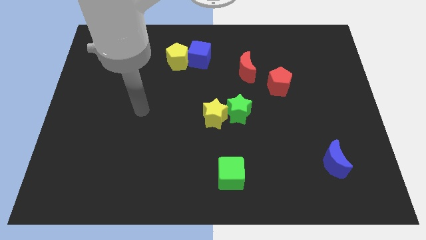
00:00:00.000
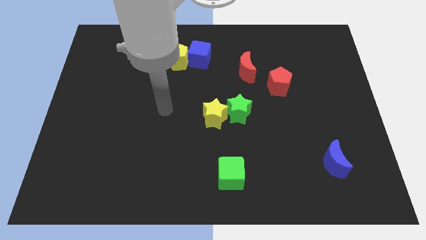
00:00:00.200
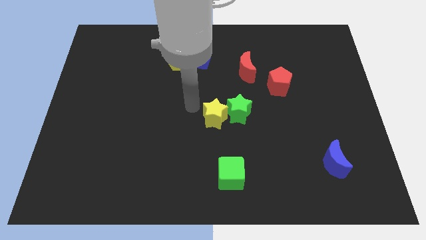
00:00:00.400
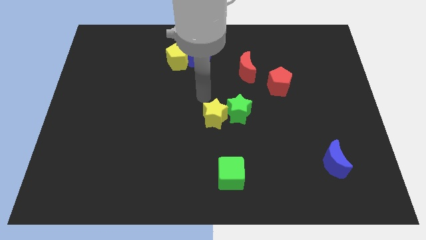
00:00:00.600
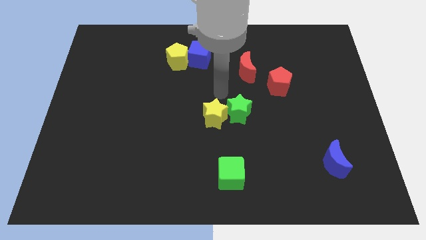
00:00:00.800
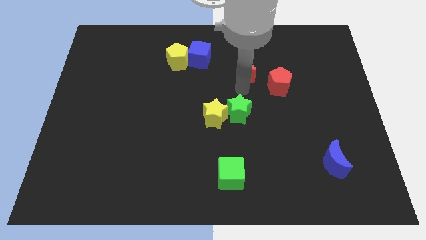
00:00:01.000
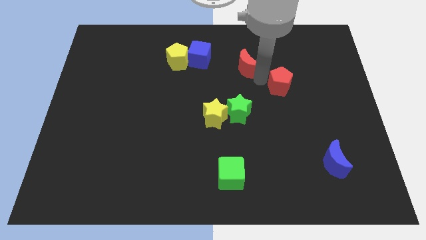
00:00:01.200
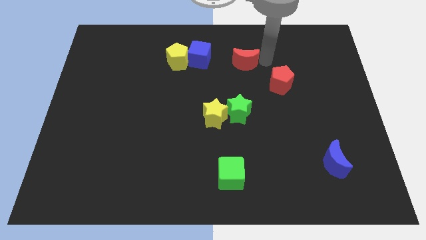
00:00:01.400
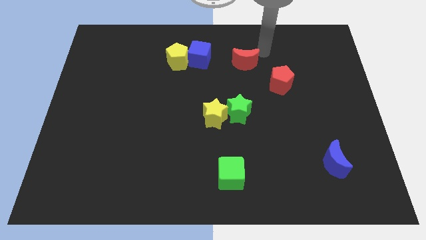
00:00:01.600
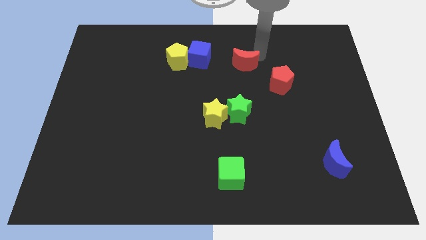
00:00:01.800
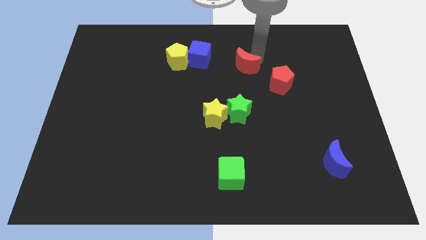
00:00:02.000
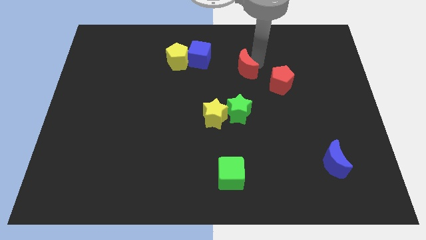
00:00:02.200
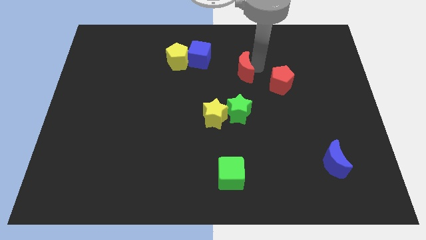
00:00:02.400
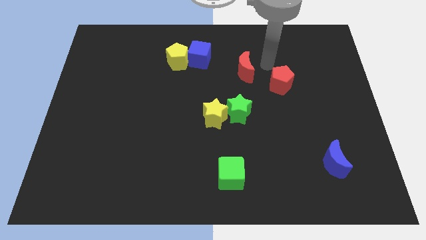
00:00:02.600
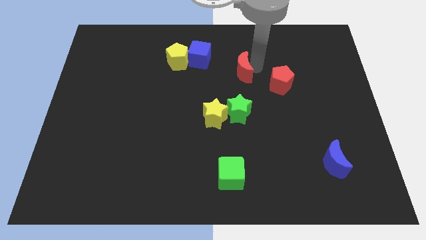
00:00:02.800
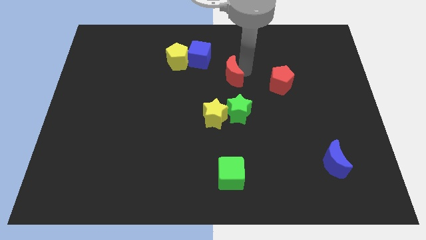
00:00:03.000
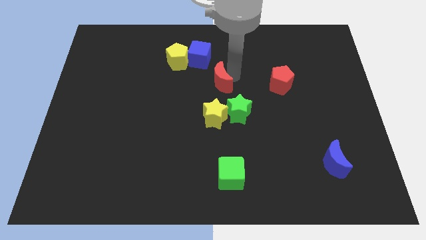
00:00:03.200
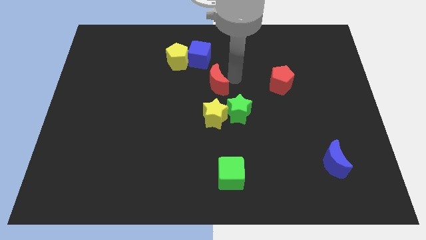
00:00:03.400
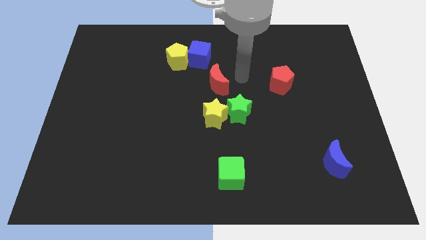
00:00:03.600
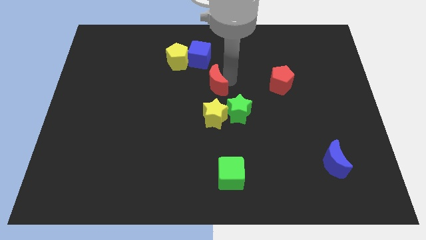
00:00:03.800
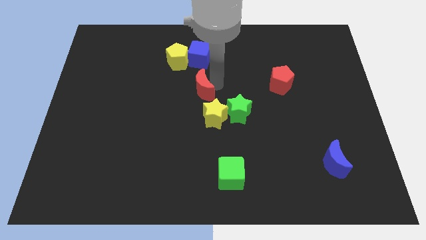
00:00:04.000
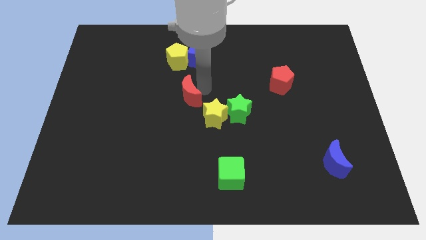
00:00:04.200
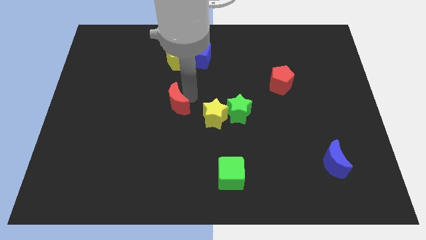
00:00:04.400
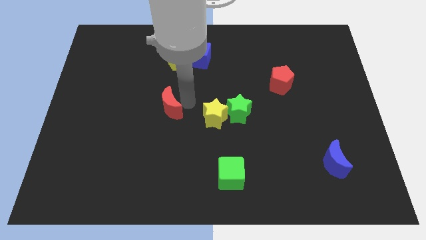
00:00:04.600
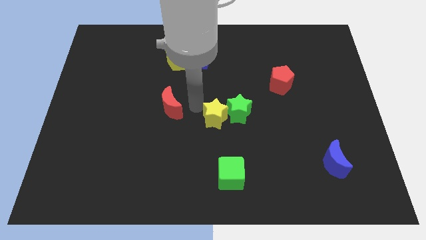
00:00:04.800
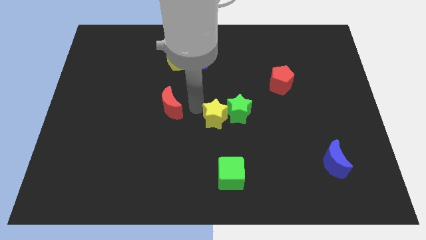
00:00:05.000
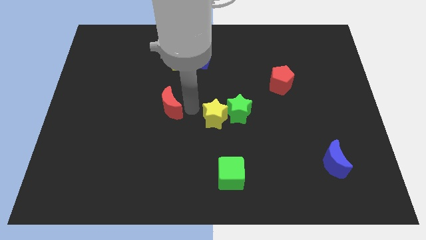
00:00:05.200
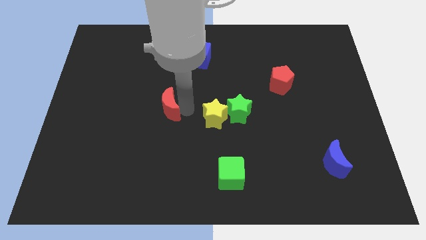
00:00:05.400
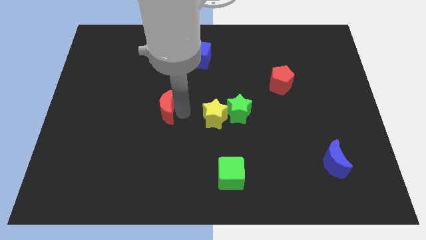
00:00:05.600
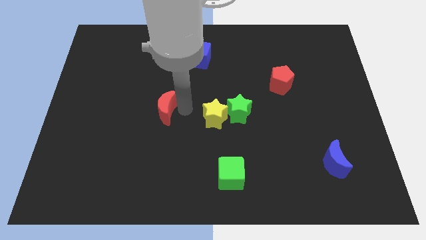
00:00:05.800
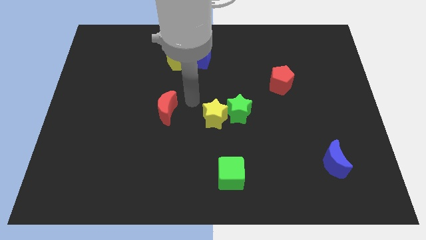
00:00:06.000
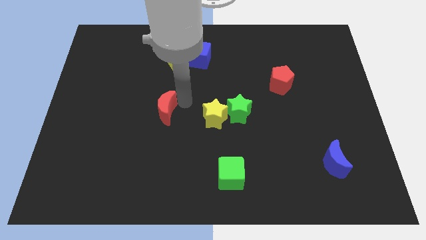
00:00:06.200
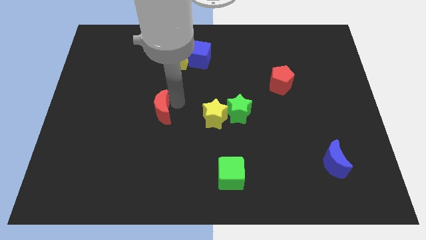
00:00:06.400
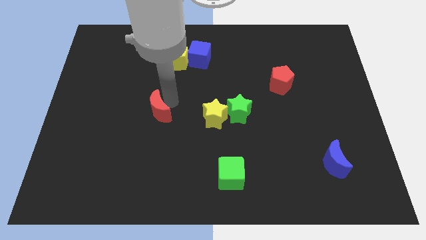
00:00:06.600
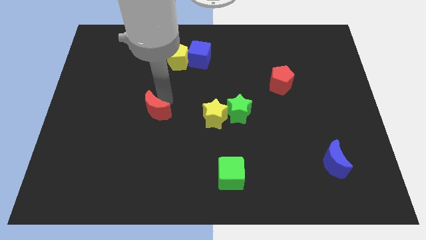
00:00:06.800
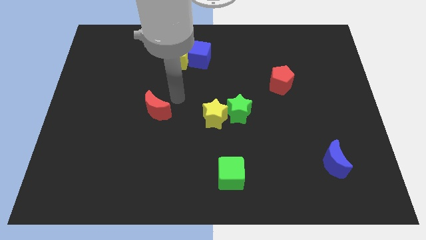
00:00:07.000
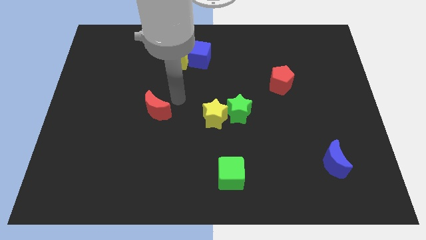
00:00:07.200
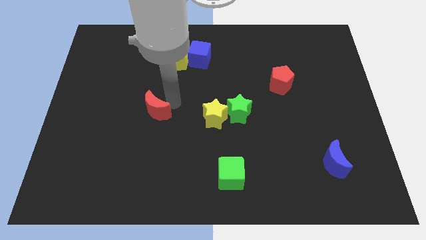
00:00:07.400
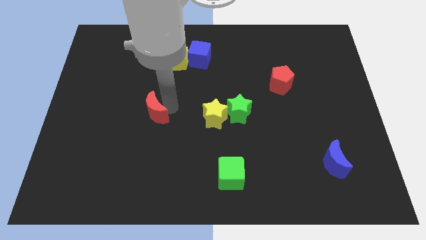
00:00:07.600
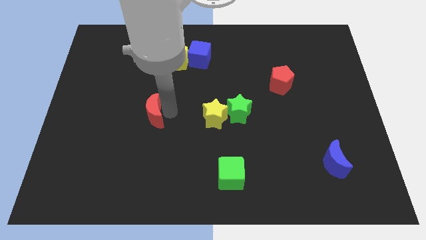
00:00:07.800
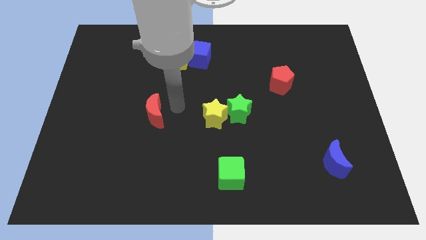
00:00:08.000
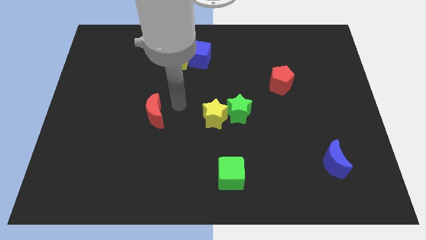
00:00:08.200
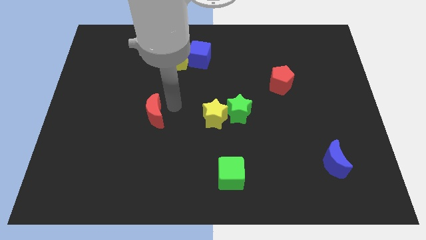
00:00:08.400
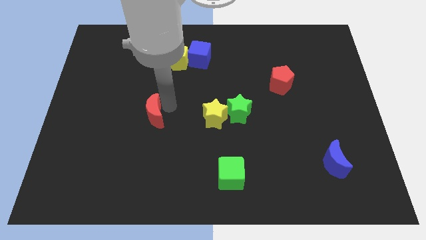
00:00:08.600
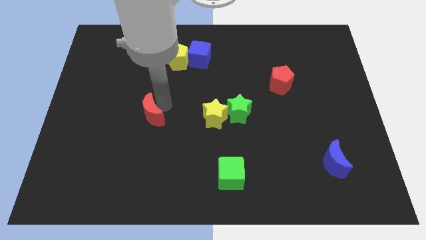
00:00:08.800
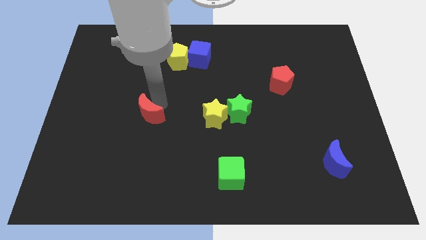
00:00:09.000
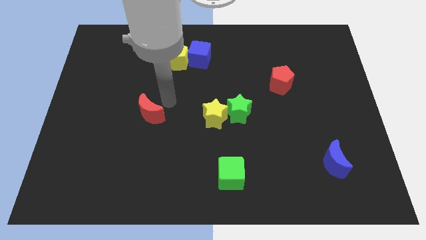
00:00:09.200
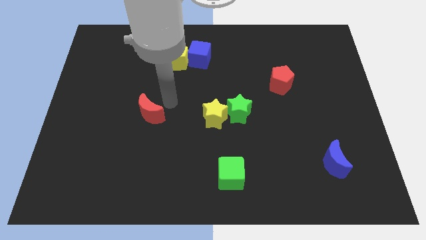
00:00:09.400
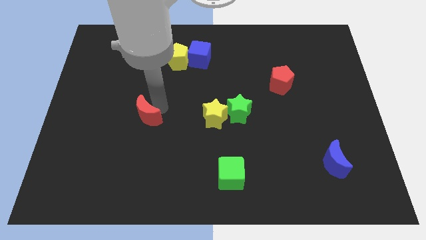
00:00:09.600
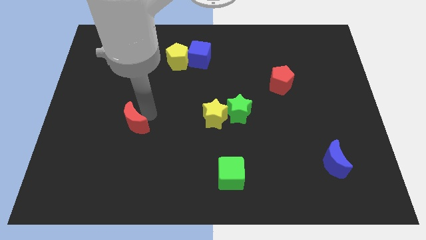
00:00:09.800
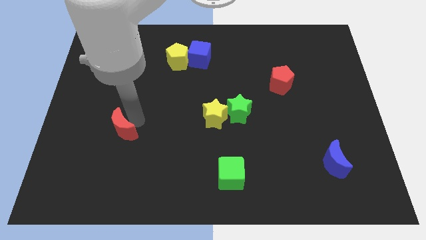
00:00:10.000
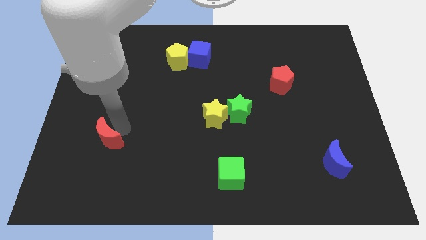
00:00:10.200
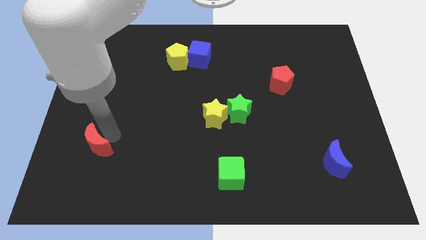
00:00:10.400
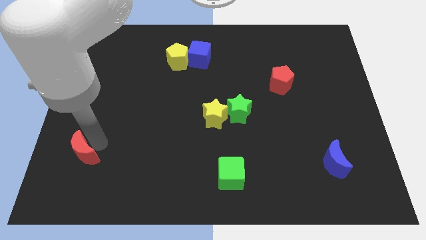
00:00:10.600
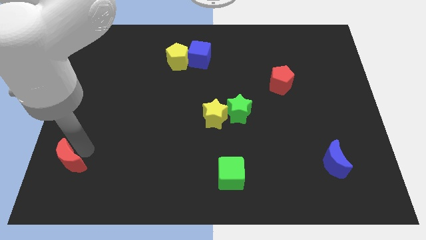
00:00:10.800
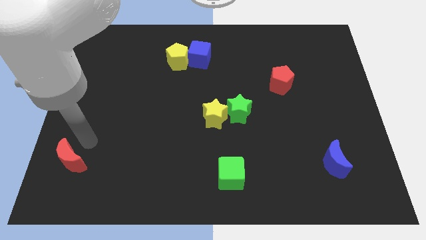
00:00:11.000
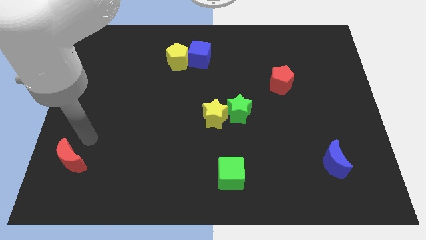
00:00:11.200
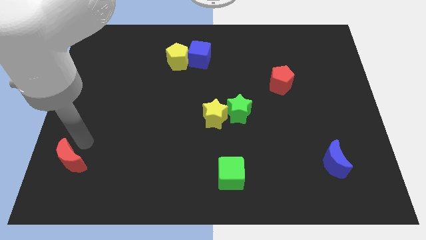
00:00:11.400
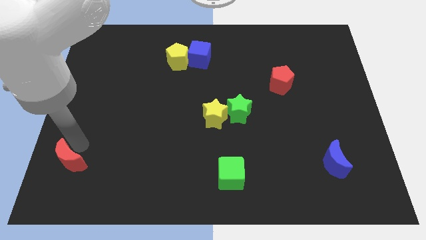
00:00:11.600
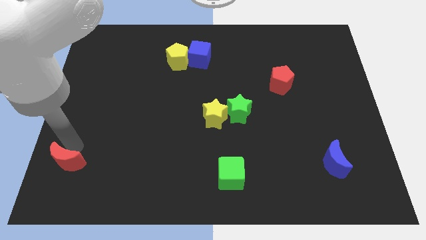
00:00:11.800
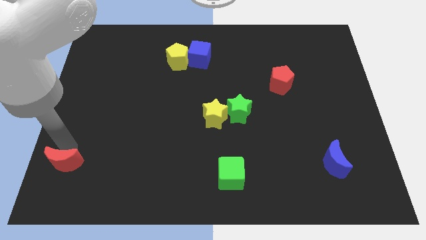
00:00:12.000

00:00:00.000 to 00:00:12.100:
put the red moon to the lower left corner
